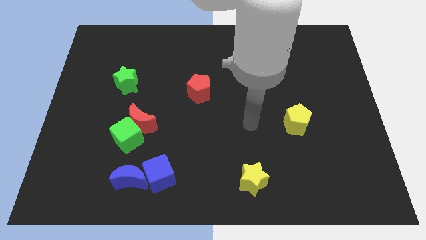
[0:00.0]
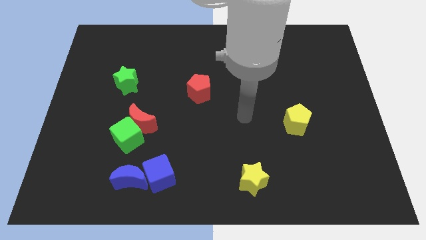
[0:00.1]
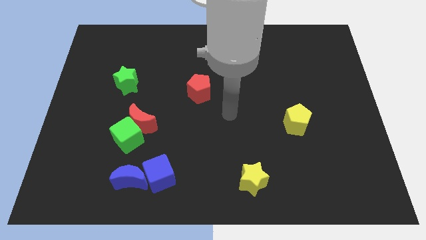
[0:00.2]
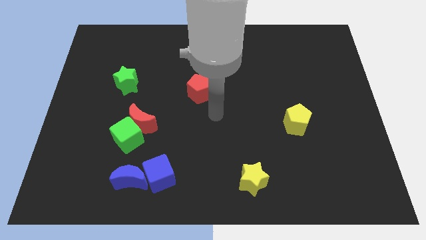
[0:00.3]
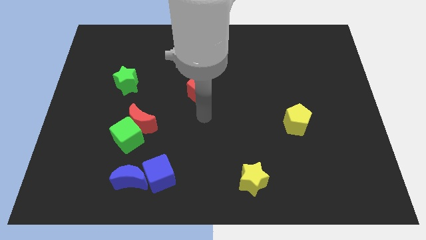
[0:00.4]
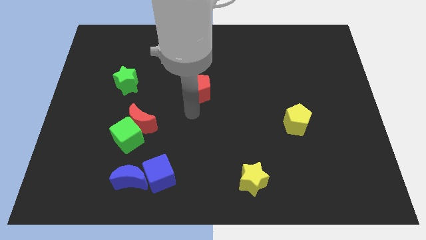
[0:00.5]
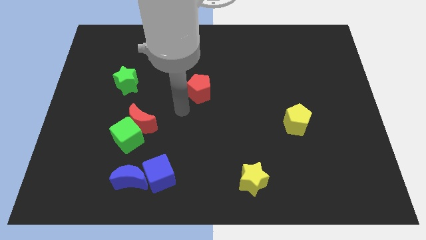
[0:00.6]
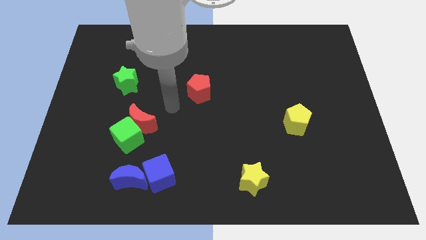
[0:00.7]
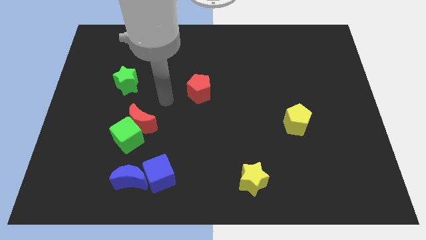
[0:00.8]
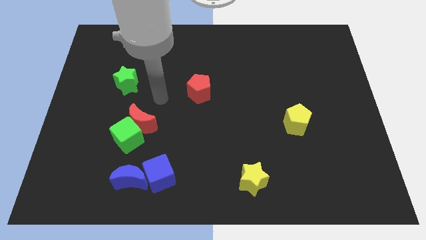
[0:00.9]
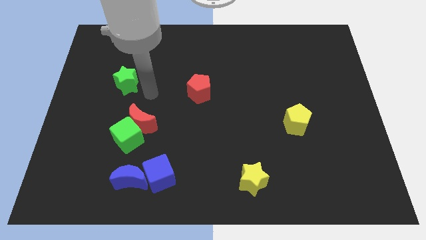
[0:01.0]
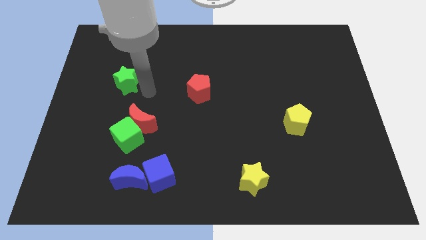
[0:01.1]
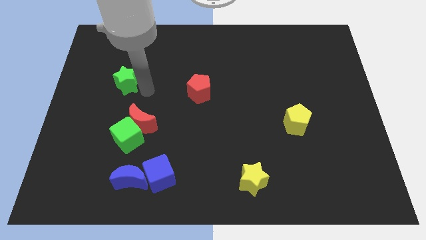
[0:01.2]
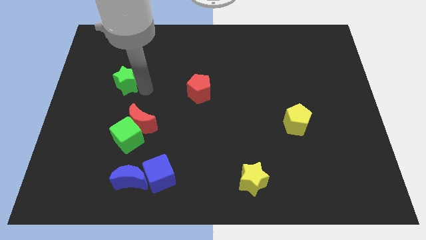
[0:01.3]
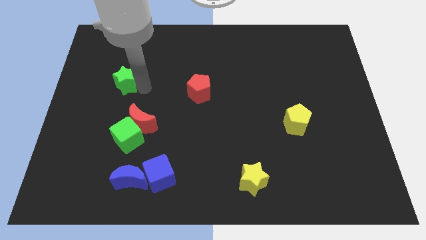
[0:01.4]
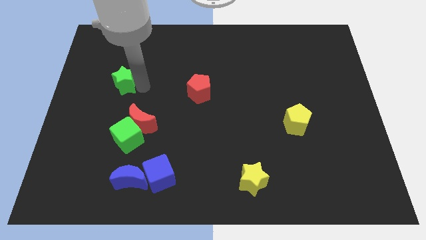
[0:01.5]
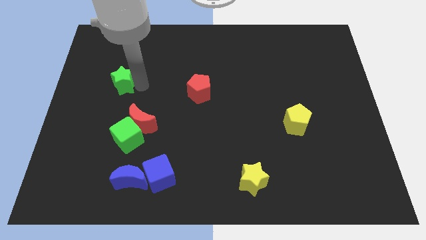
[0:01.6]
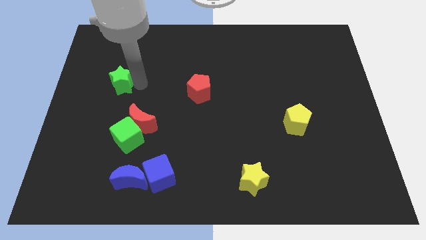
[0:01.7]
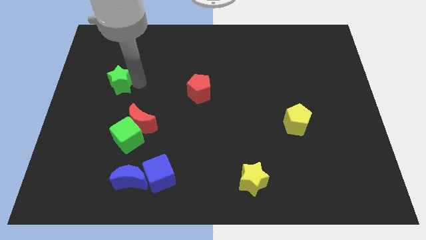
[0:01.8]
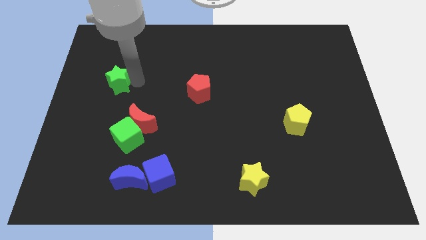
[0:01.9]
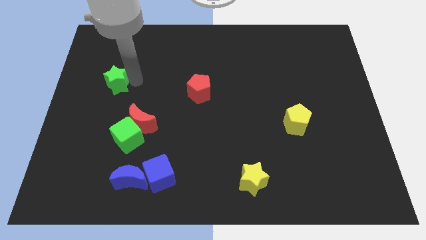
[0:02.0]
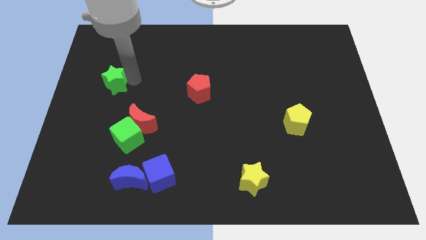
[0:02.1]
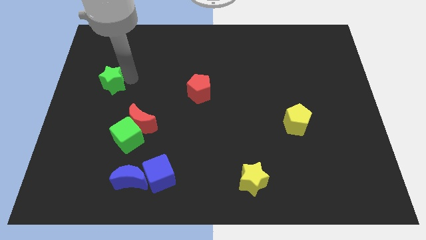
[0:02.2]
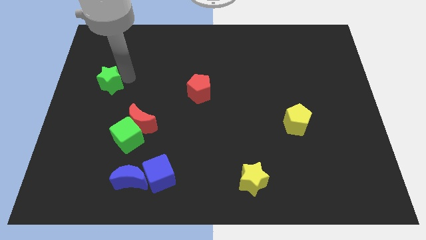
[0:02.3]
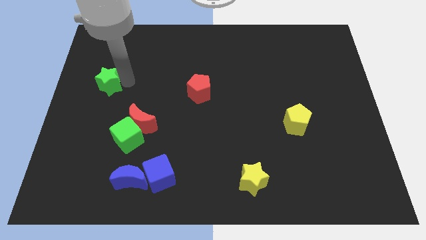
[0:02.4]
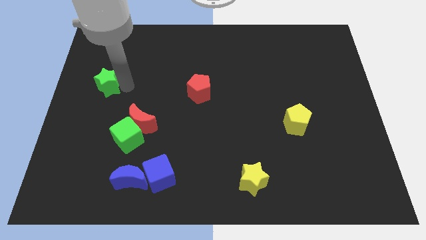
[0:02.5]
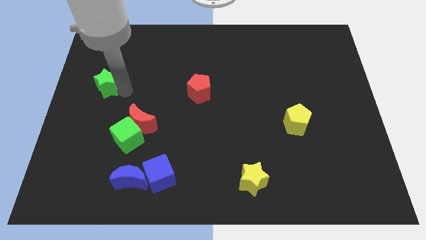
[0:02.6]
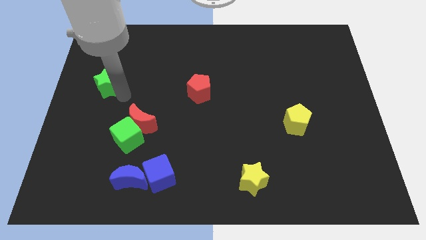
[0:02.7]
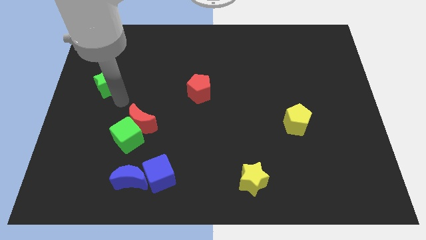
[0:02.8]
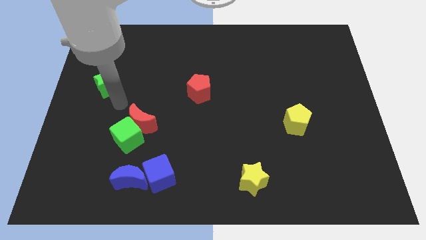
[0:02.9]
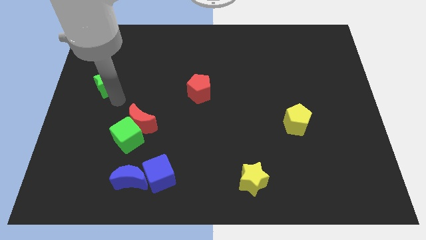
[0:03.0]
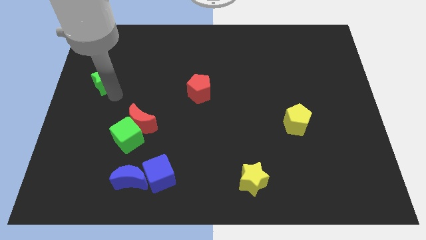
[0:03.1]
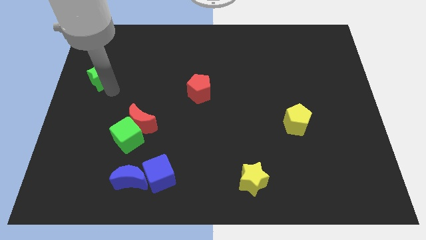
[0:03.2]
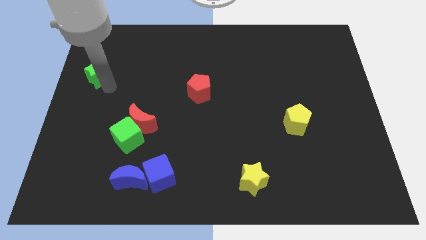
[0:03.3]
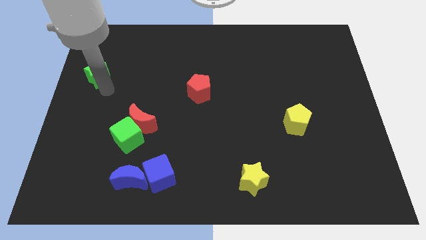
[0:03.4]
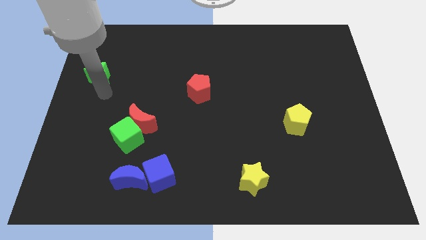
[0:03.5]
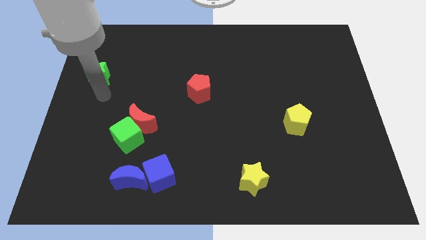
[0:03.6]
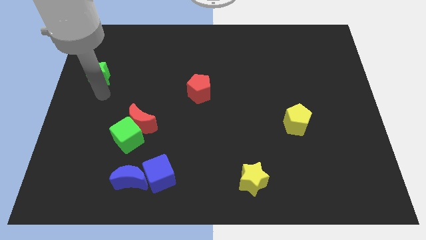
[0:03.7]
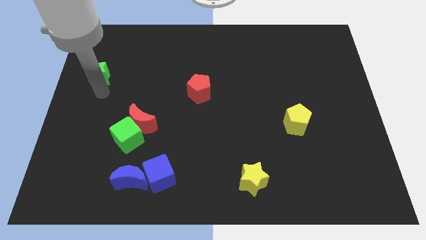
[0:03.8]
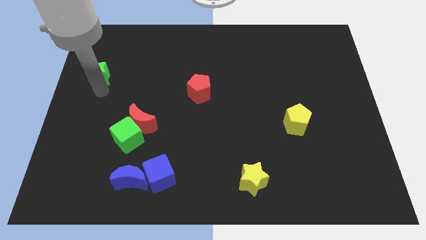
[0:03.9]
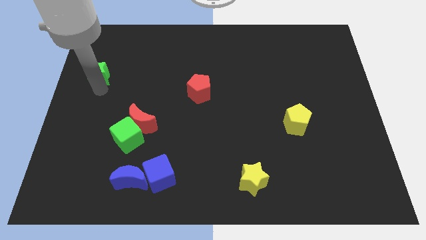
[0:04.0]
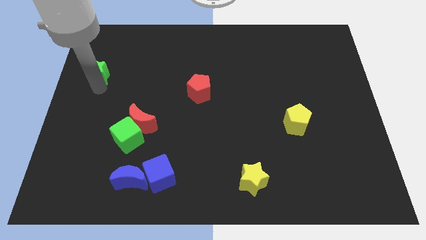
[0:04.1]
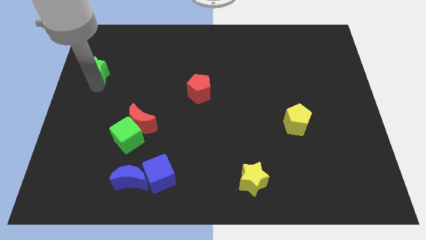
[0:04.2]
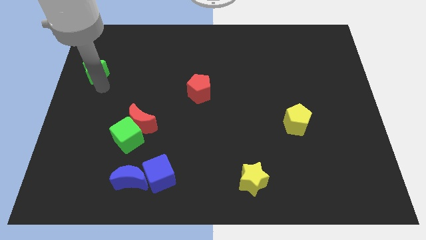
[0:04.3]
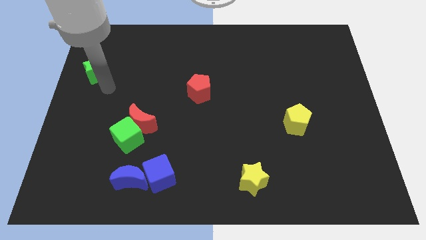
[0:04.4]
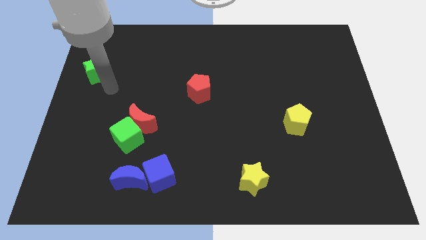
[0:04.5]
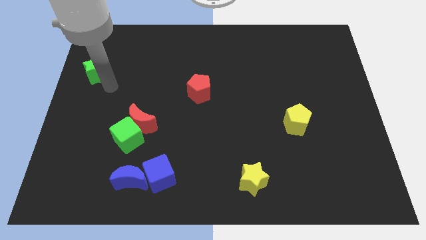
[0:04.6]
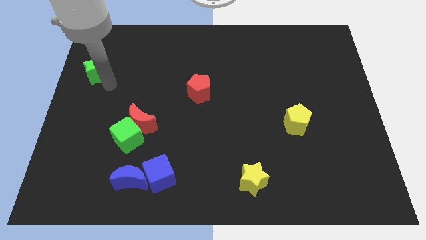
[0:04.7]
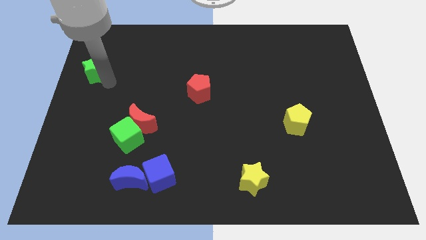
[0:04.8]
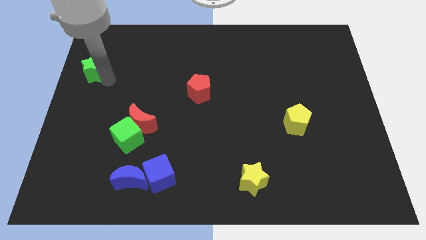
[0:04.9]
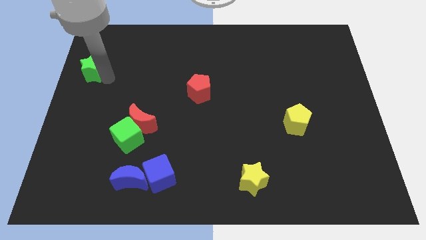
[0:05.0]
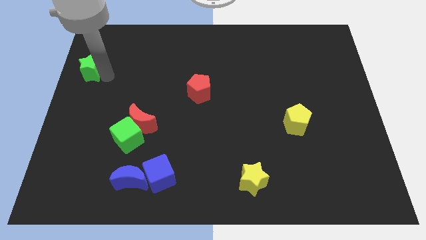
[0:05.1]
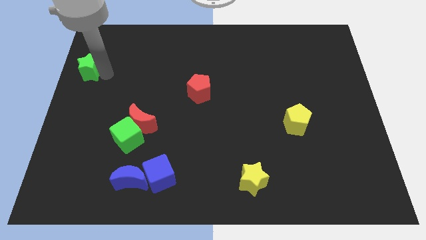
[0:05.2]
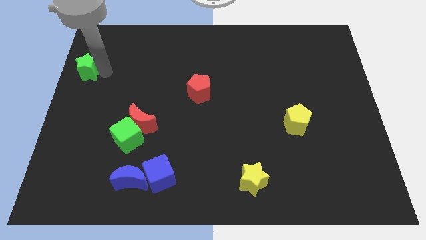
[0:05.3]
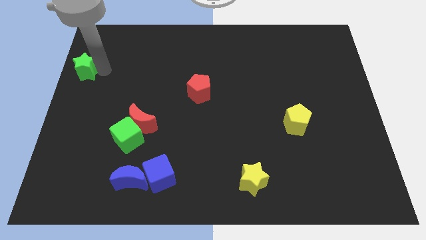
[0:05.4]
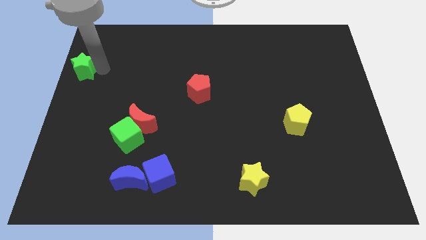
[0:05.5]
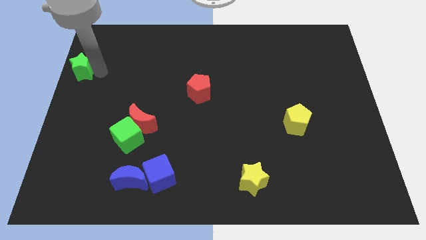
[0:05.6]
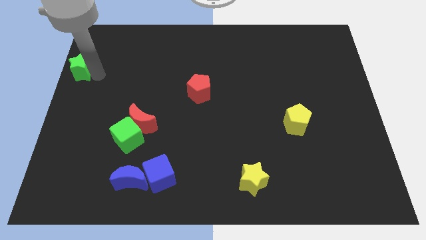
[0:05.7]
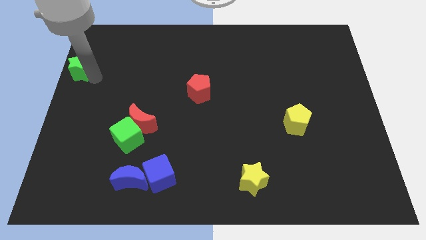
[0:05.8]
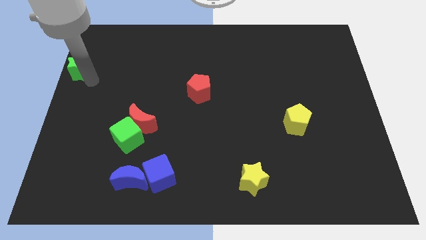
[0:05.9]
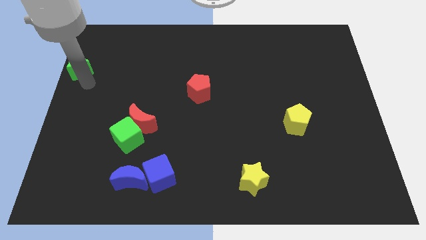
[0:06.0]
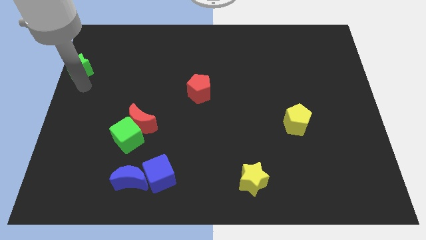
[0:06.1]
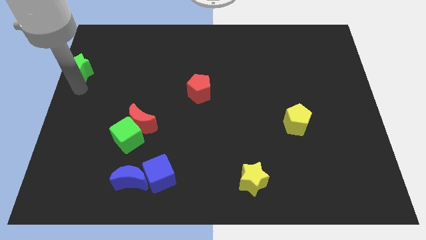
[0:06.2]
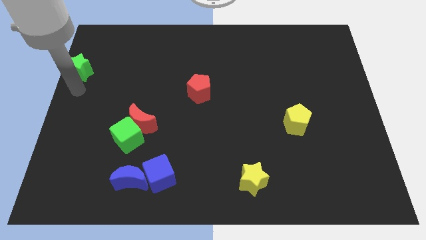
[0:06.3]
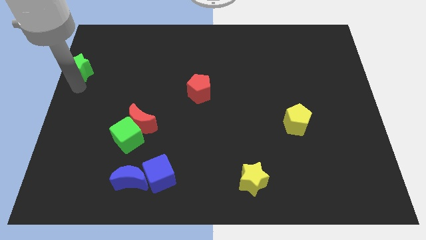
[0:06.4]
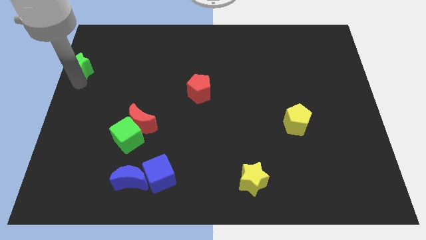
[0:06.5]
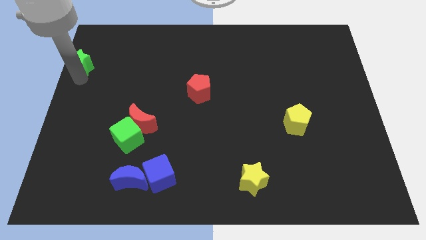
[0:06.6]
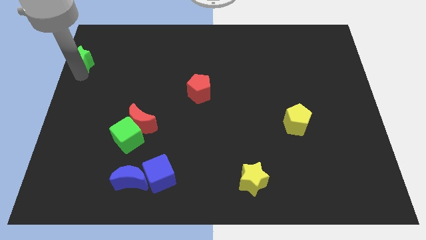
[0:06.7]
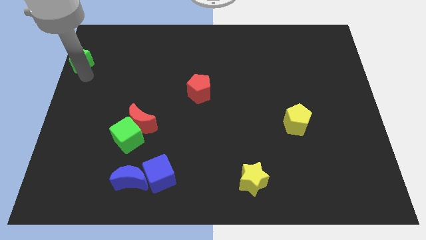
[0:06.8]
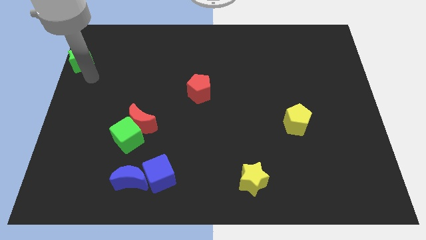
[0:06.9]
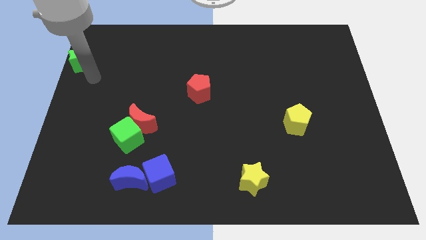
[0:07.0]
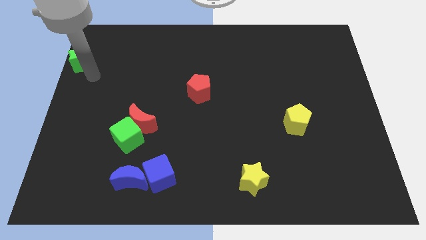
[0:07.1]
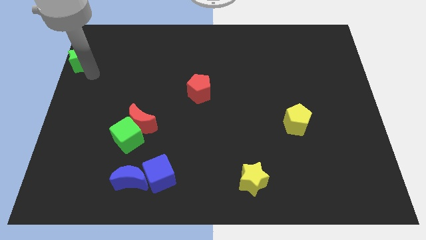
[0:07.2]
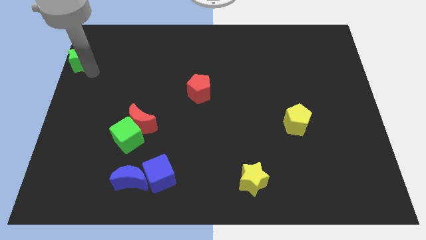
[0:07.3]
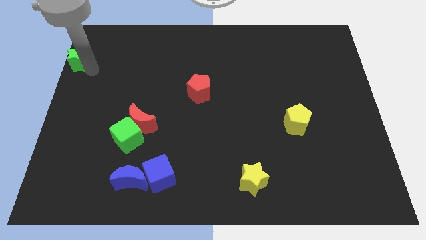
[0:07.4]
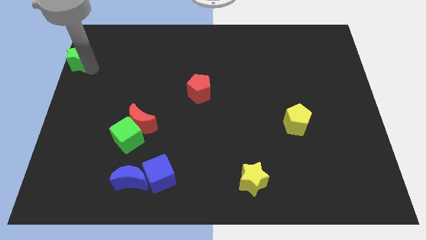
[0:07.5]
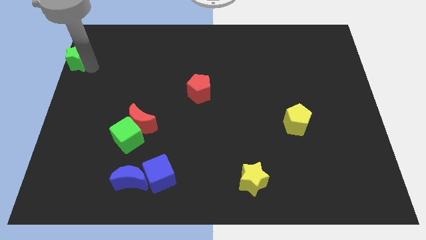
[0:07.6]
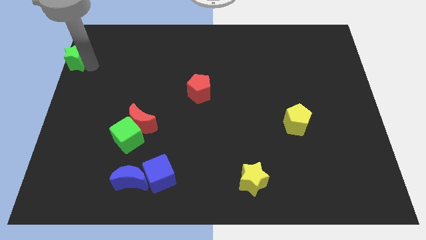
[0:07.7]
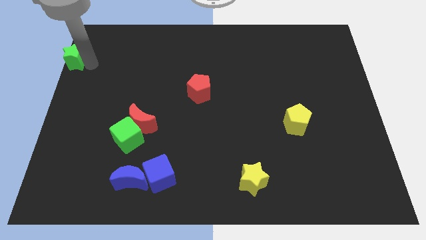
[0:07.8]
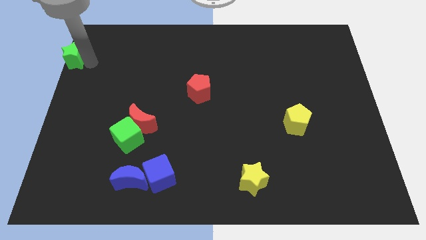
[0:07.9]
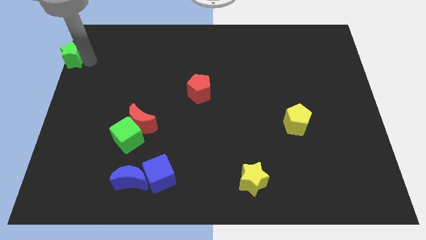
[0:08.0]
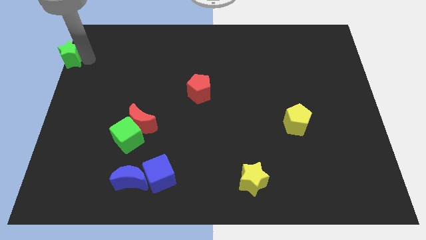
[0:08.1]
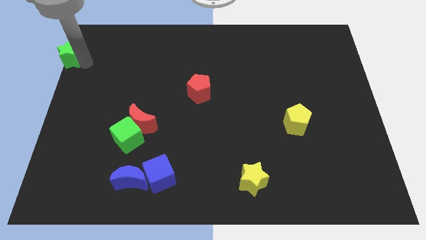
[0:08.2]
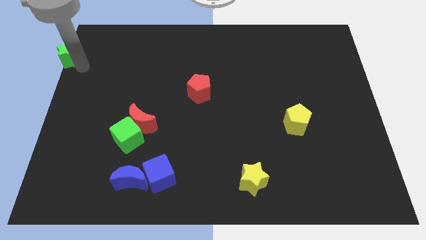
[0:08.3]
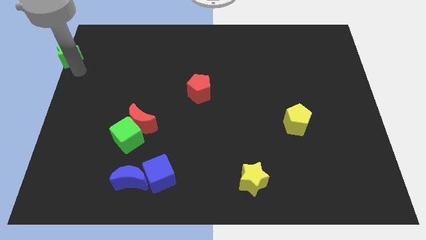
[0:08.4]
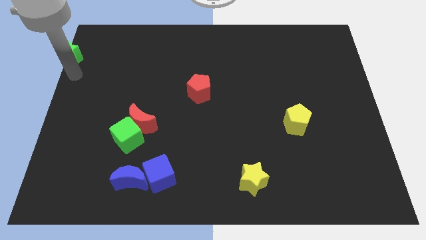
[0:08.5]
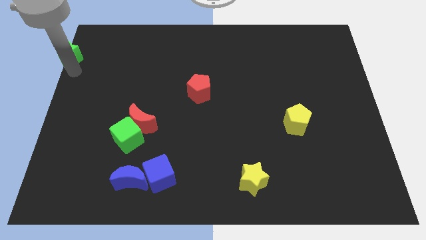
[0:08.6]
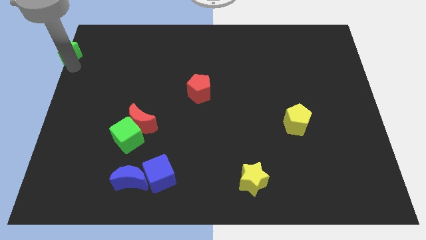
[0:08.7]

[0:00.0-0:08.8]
put the green star to the top left of the board
